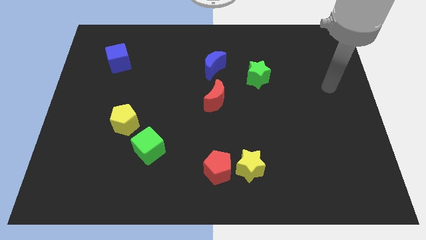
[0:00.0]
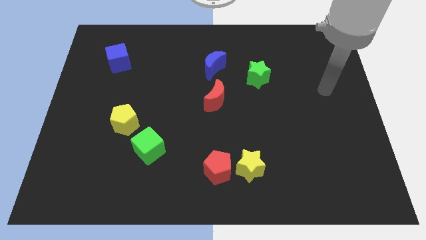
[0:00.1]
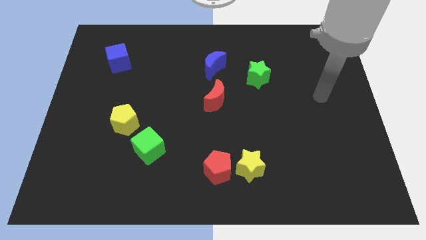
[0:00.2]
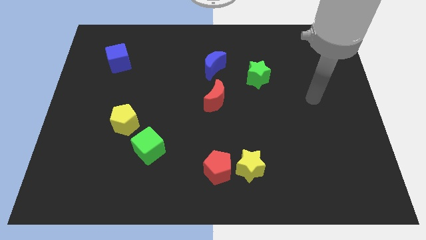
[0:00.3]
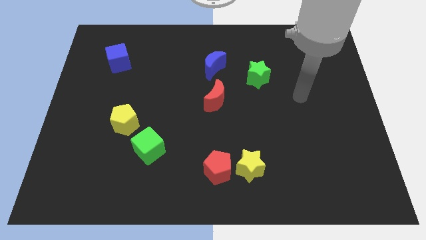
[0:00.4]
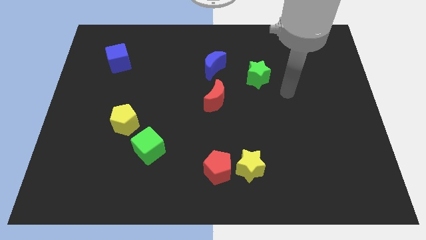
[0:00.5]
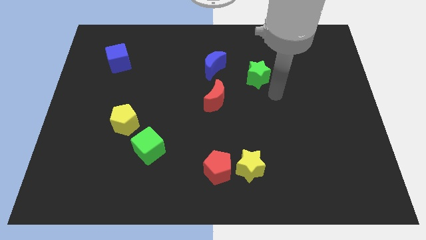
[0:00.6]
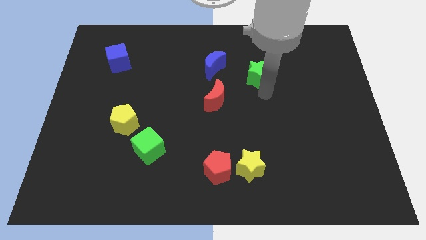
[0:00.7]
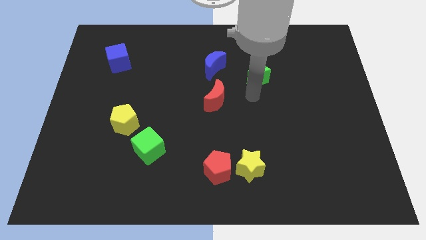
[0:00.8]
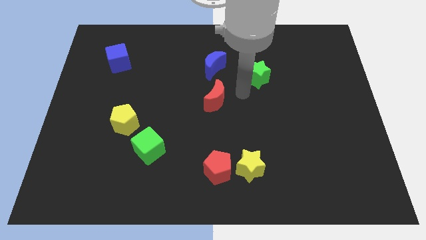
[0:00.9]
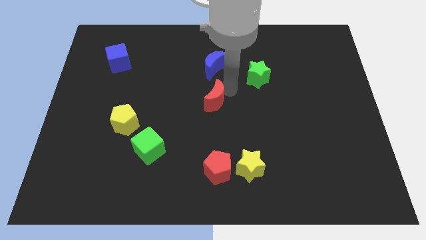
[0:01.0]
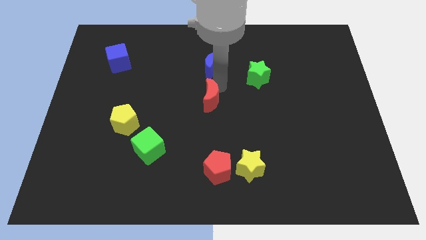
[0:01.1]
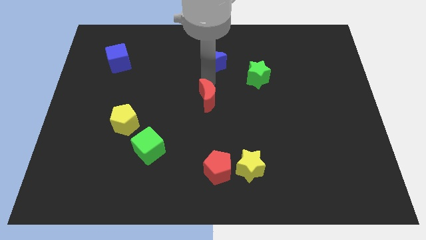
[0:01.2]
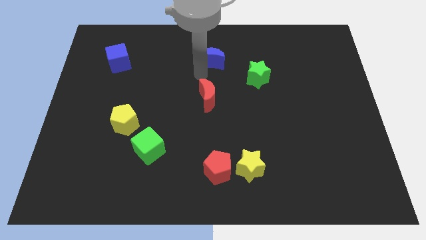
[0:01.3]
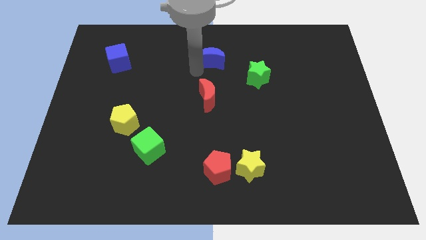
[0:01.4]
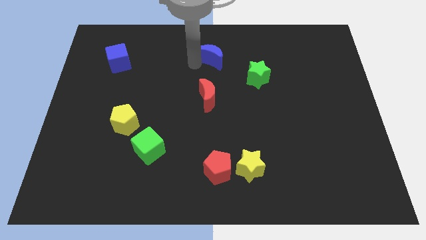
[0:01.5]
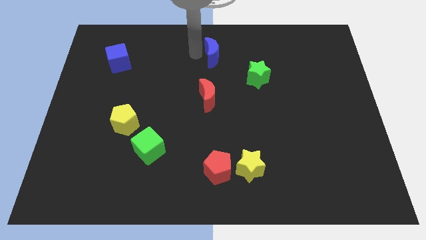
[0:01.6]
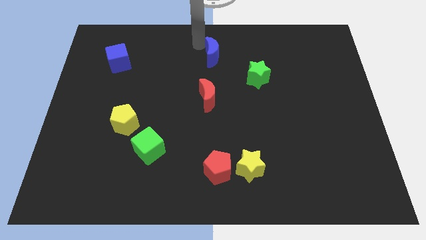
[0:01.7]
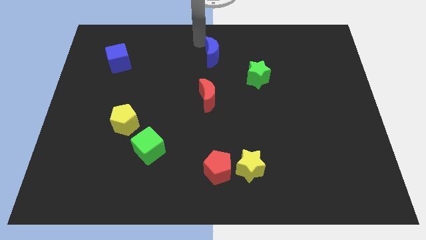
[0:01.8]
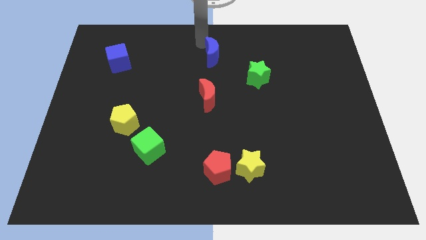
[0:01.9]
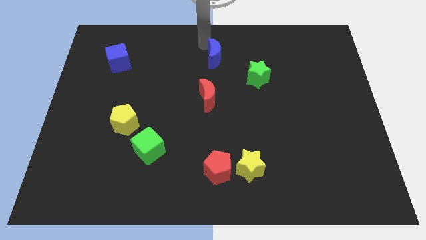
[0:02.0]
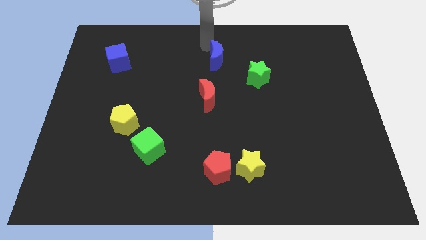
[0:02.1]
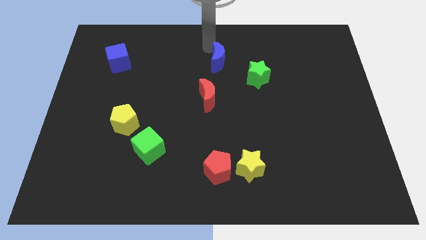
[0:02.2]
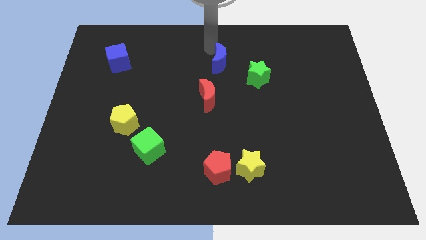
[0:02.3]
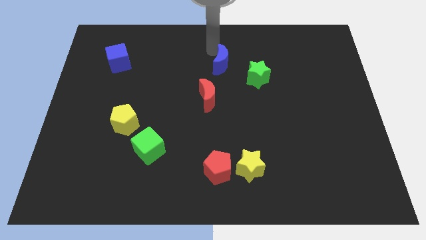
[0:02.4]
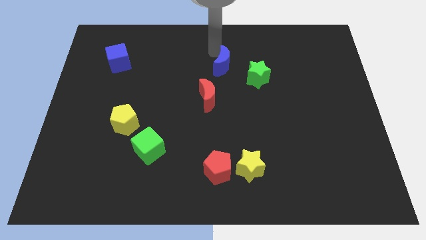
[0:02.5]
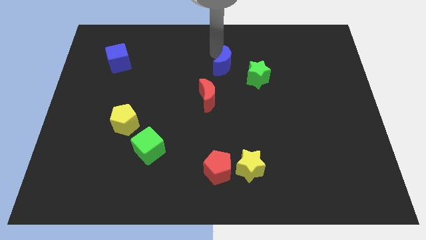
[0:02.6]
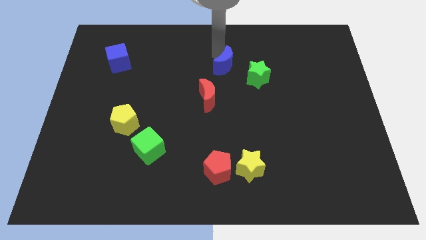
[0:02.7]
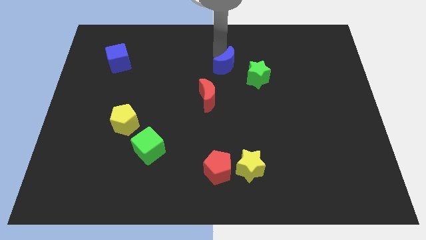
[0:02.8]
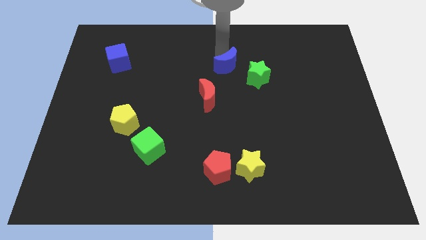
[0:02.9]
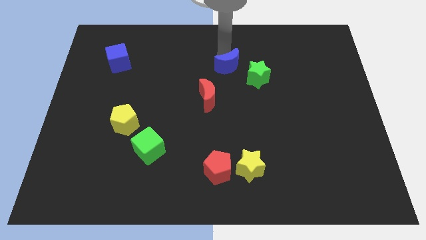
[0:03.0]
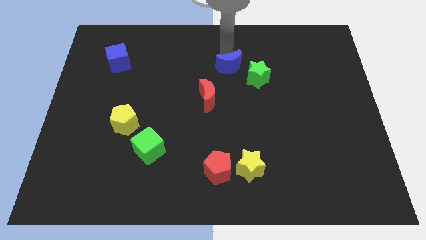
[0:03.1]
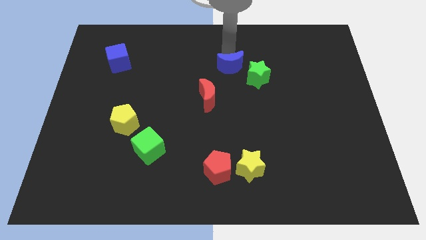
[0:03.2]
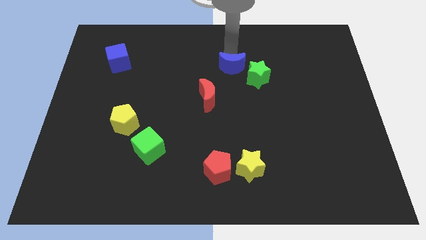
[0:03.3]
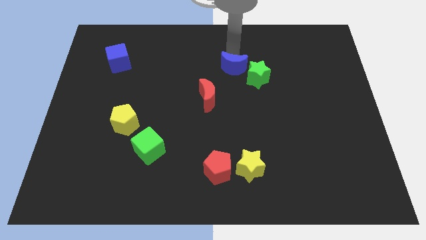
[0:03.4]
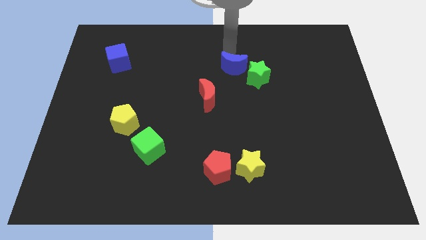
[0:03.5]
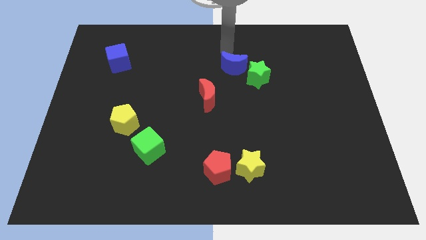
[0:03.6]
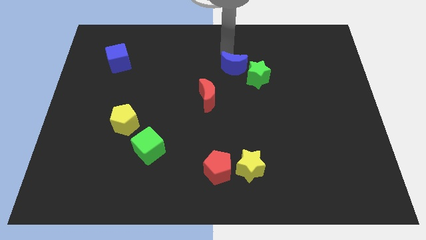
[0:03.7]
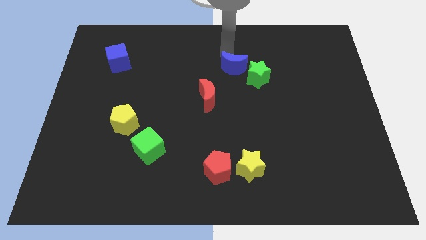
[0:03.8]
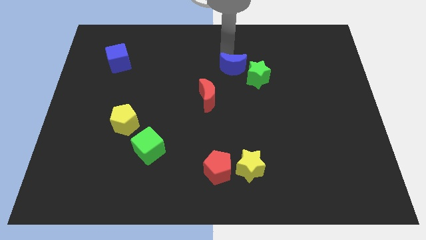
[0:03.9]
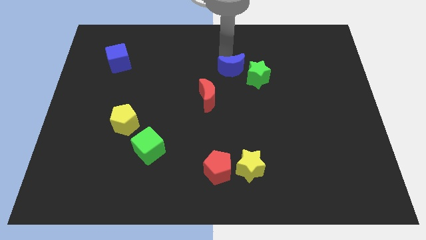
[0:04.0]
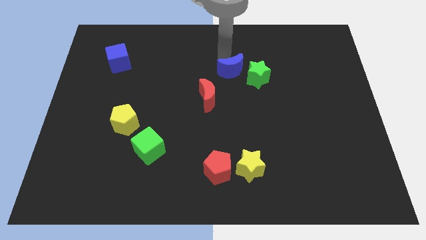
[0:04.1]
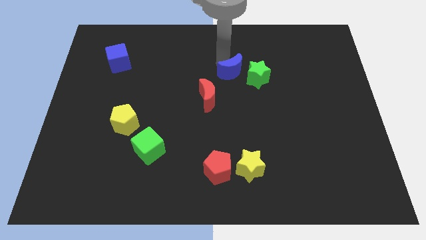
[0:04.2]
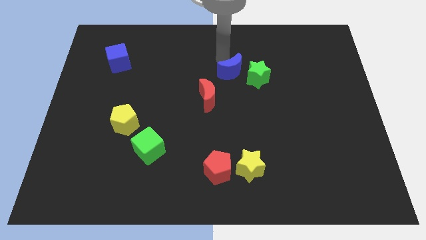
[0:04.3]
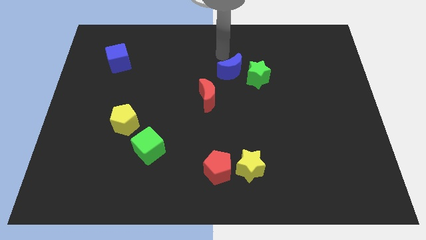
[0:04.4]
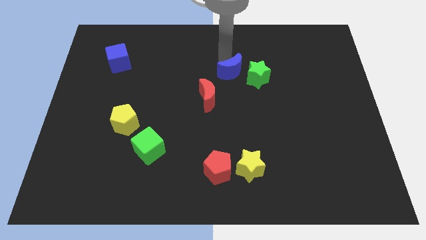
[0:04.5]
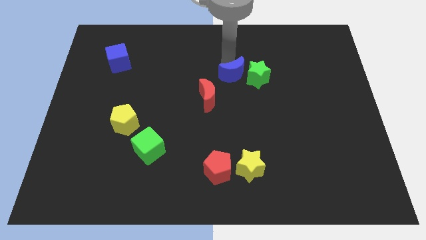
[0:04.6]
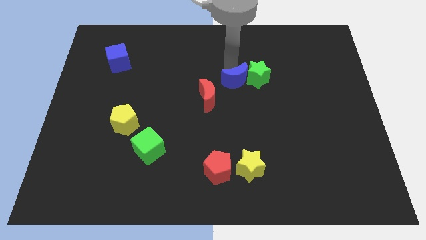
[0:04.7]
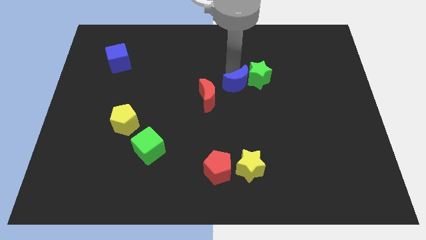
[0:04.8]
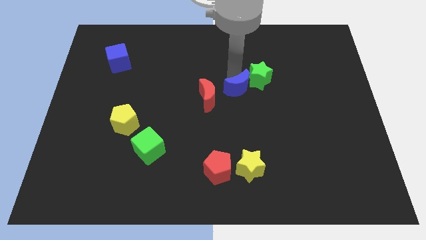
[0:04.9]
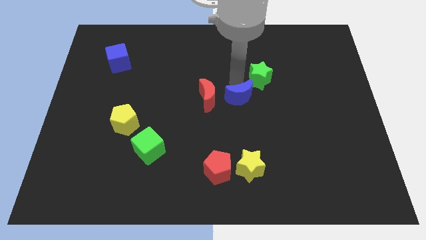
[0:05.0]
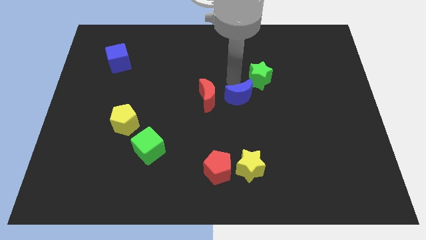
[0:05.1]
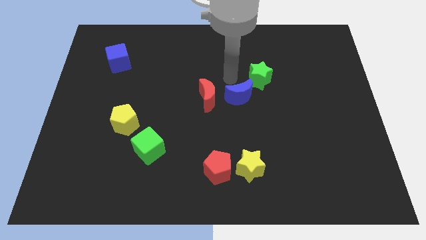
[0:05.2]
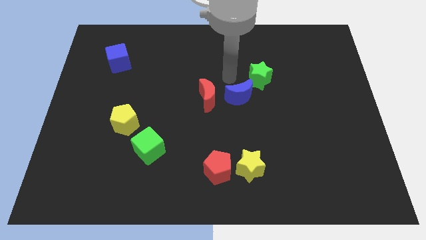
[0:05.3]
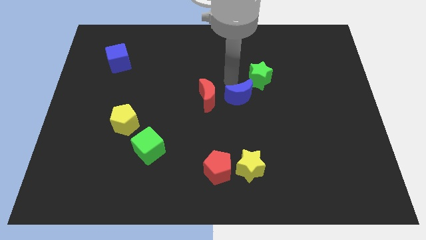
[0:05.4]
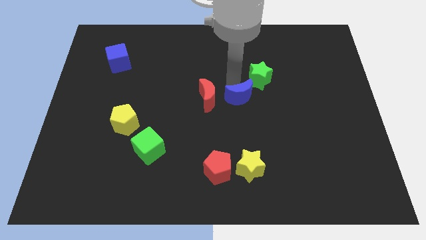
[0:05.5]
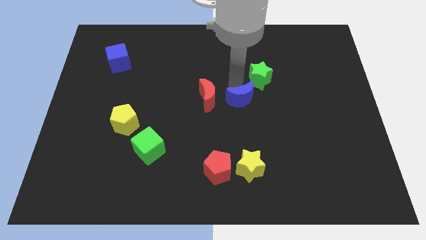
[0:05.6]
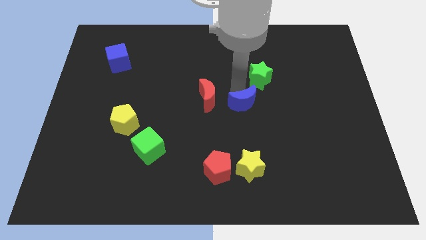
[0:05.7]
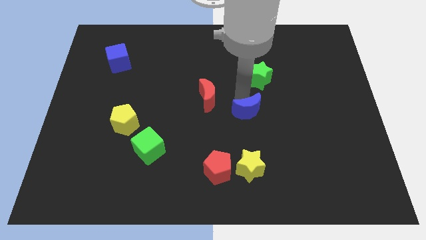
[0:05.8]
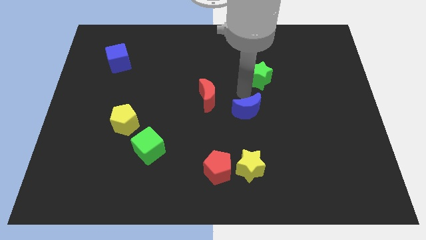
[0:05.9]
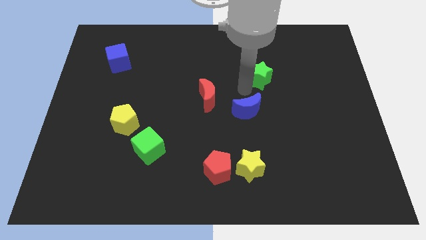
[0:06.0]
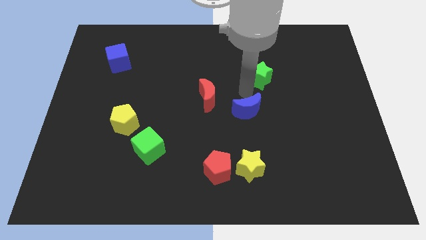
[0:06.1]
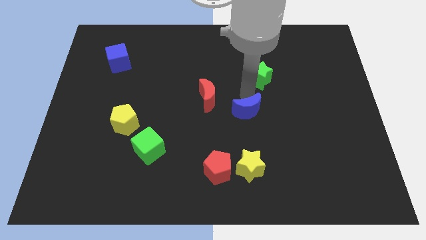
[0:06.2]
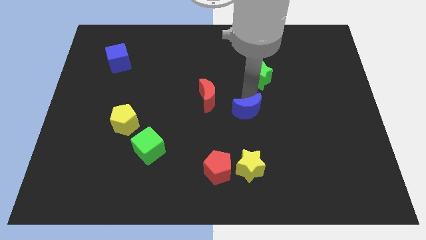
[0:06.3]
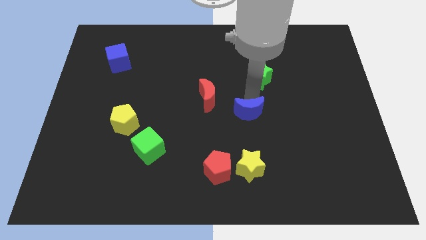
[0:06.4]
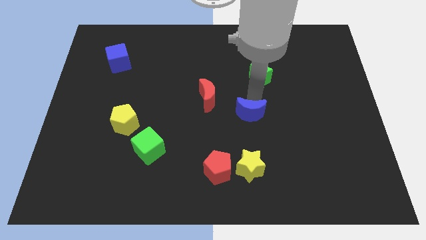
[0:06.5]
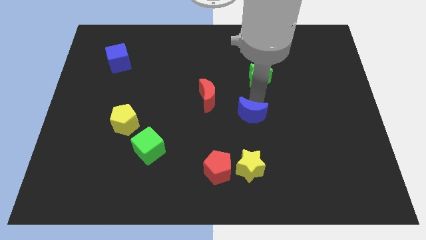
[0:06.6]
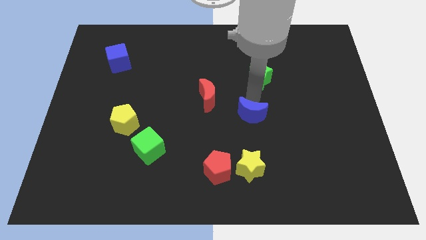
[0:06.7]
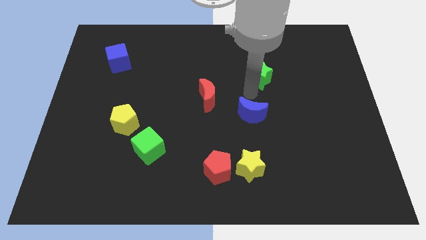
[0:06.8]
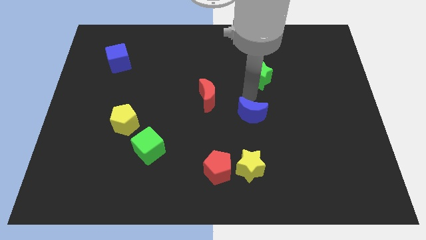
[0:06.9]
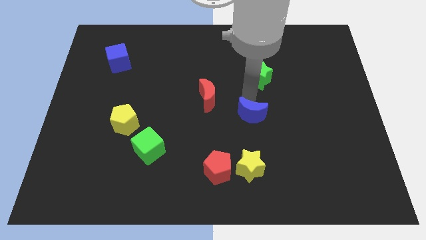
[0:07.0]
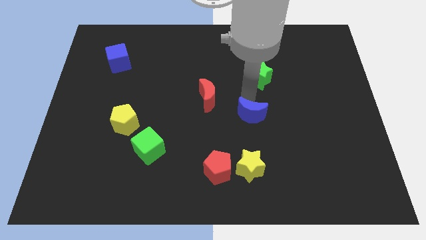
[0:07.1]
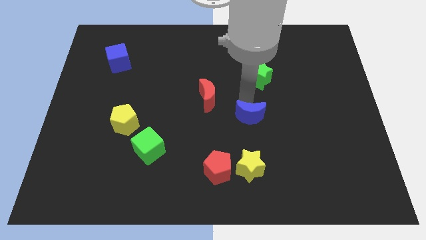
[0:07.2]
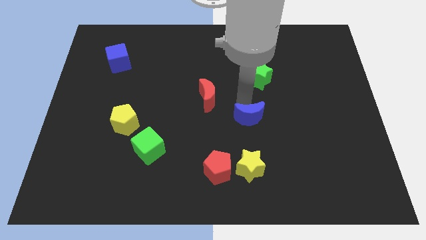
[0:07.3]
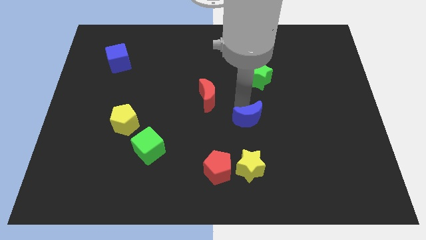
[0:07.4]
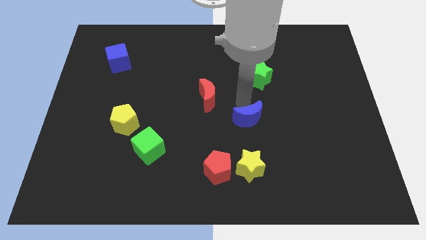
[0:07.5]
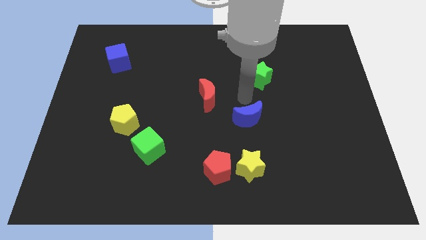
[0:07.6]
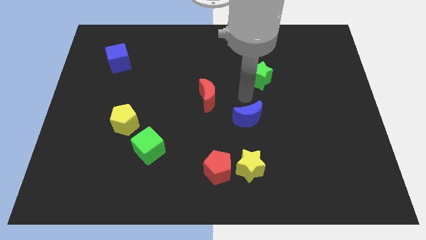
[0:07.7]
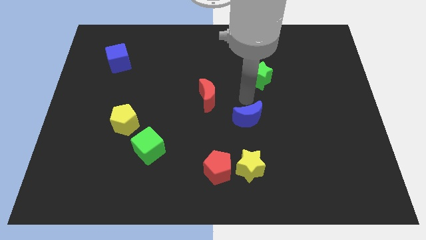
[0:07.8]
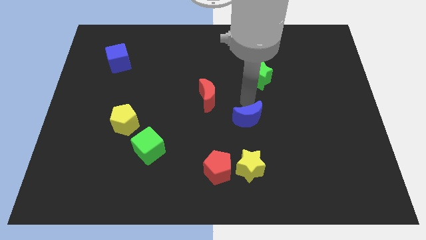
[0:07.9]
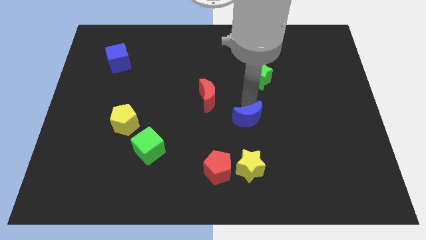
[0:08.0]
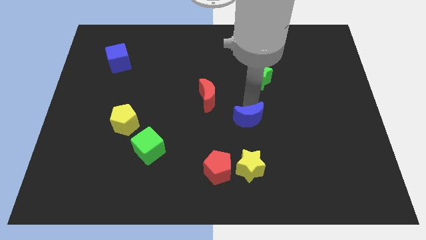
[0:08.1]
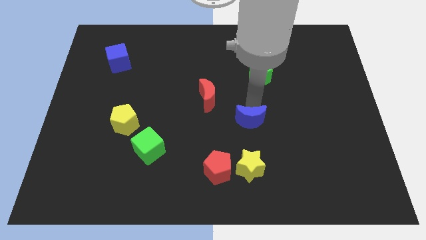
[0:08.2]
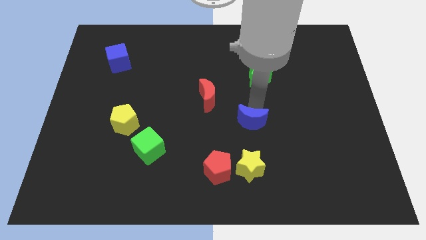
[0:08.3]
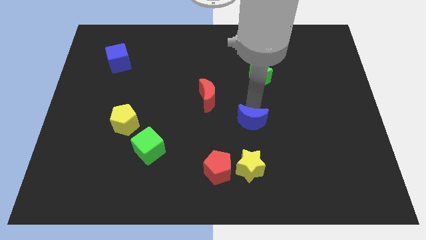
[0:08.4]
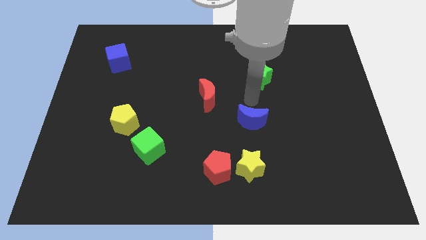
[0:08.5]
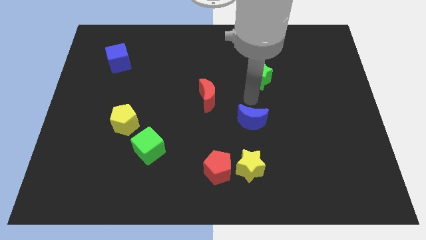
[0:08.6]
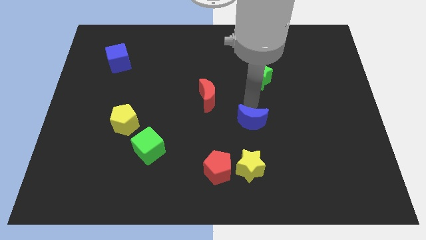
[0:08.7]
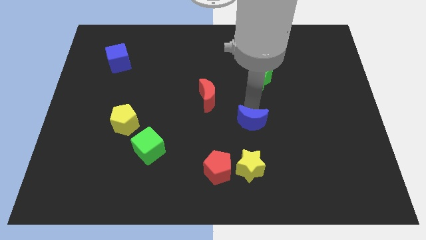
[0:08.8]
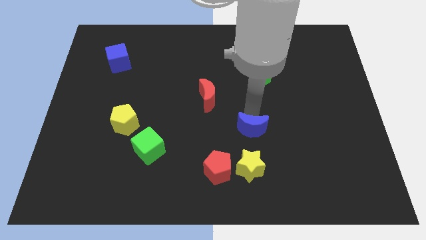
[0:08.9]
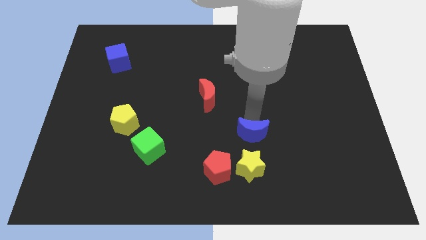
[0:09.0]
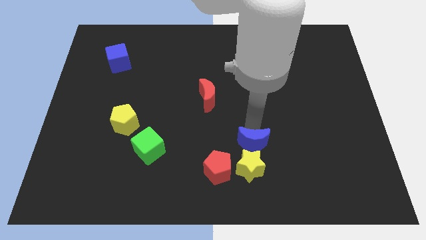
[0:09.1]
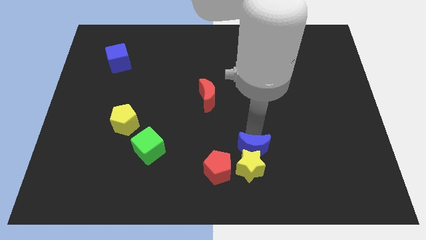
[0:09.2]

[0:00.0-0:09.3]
slide the blue moon close to the yellow star
